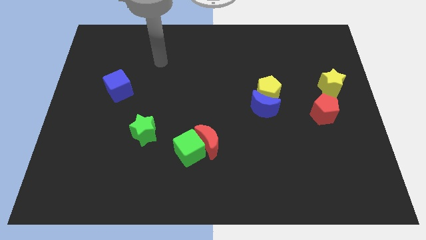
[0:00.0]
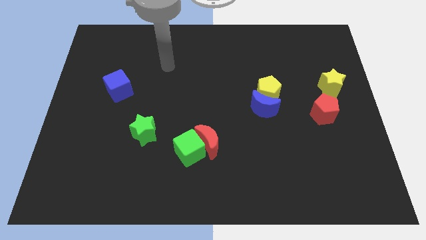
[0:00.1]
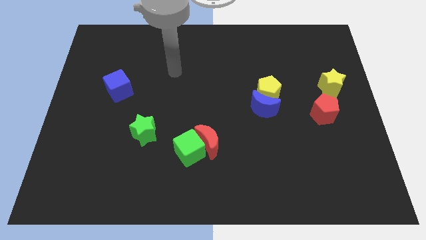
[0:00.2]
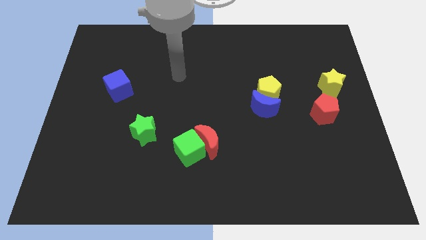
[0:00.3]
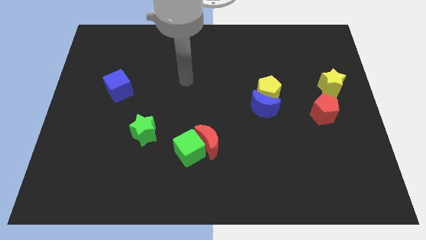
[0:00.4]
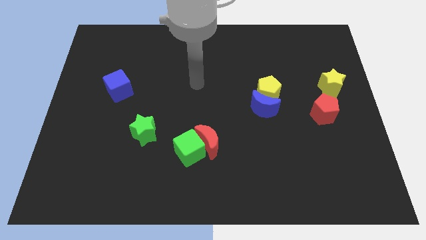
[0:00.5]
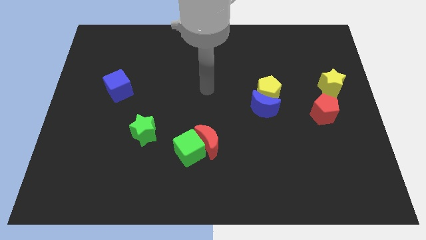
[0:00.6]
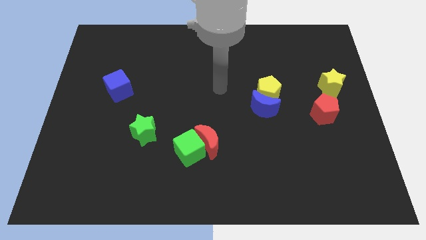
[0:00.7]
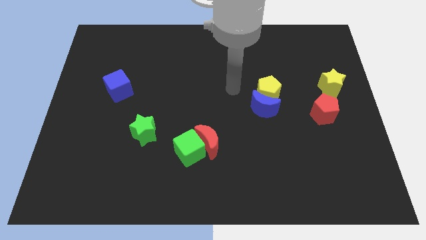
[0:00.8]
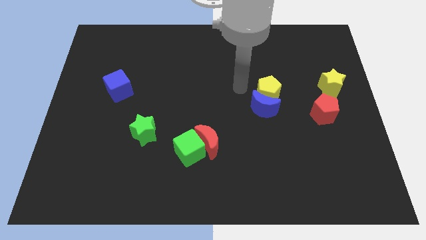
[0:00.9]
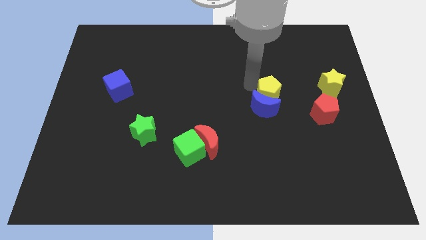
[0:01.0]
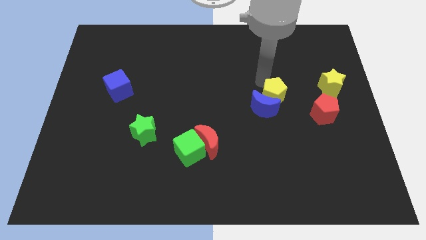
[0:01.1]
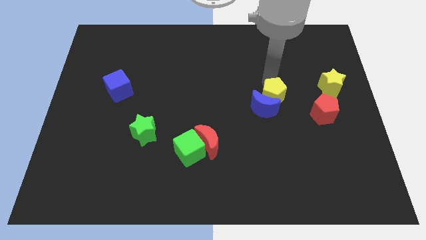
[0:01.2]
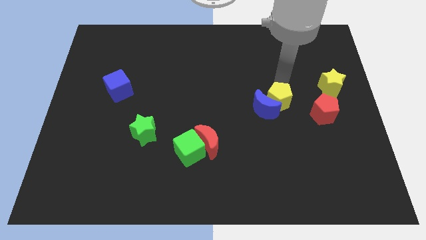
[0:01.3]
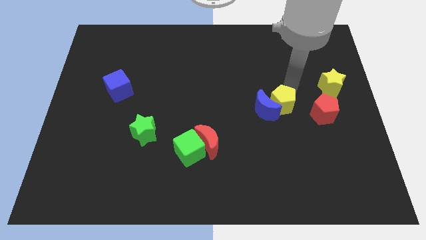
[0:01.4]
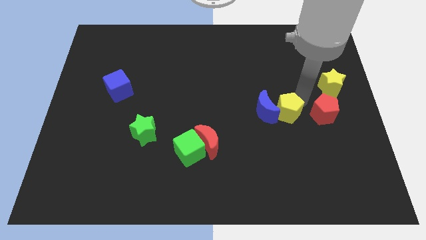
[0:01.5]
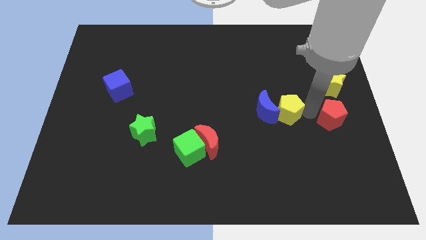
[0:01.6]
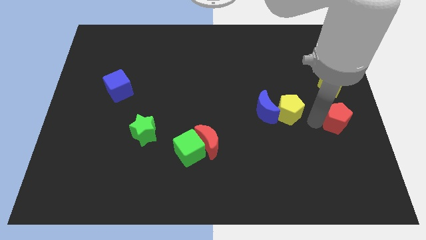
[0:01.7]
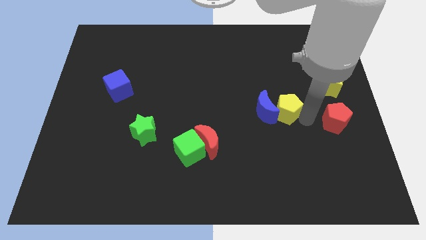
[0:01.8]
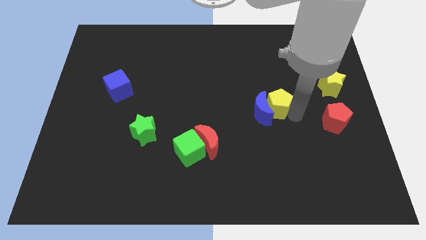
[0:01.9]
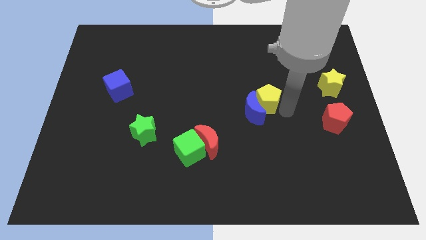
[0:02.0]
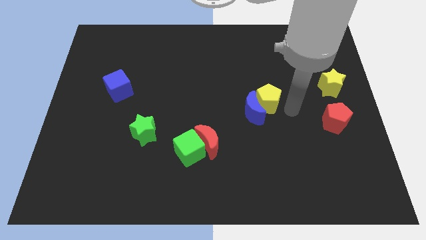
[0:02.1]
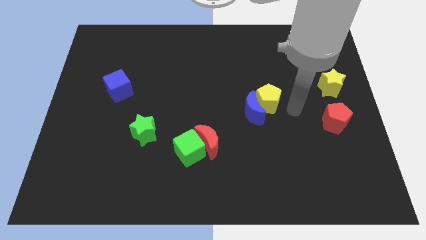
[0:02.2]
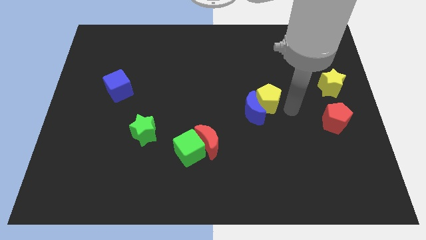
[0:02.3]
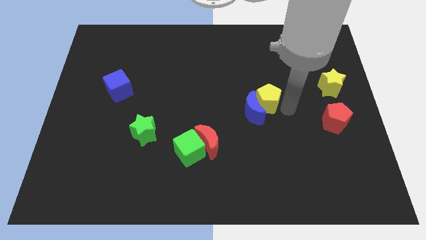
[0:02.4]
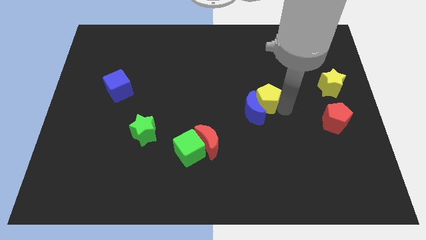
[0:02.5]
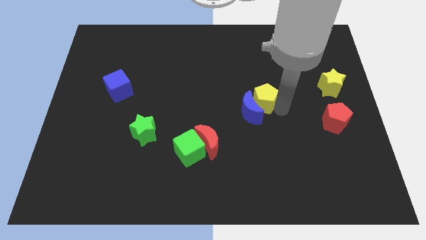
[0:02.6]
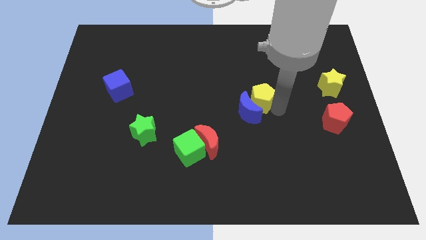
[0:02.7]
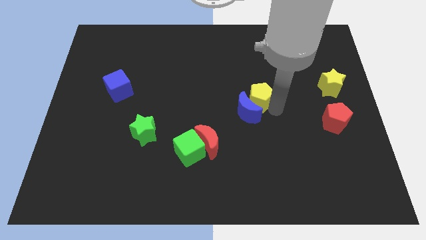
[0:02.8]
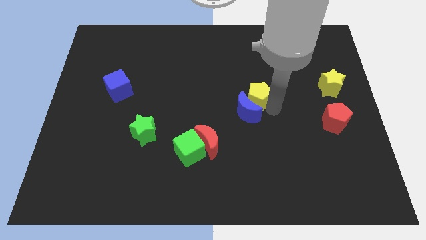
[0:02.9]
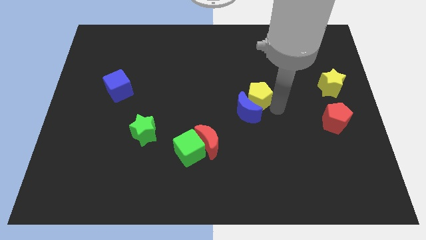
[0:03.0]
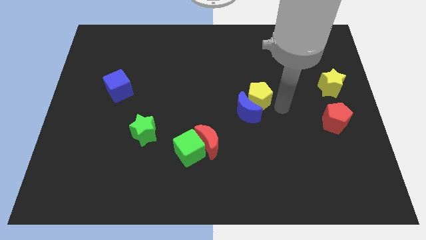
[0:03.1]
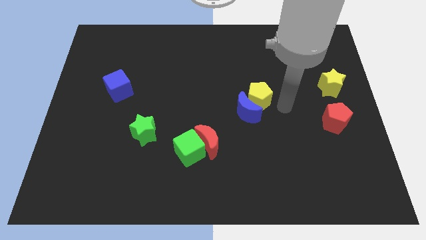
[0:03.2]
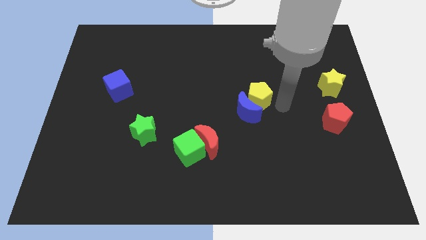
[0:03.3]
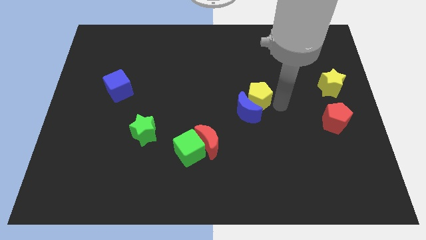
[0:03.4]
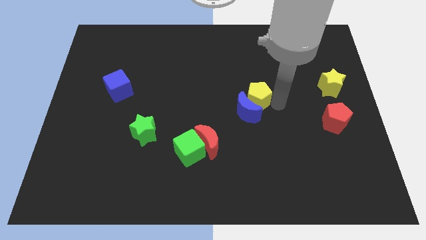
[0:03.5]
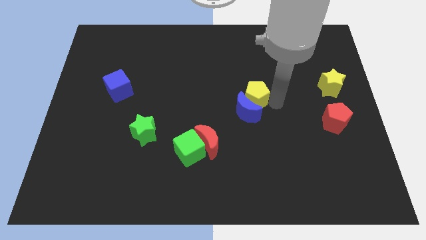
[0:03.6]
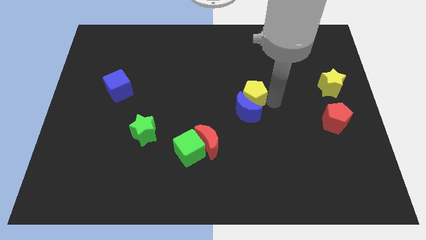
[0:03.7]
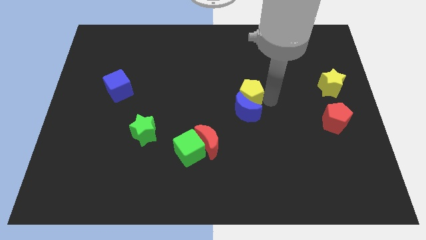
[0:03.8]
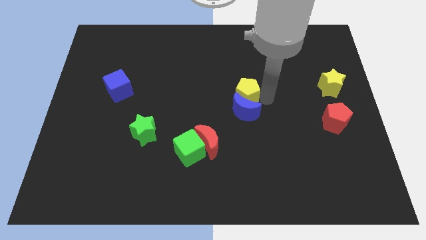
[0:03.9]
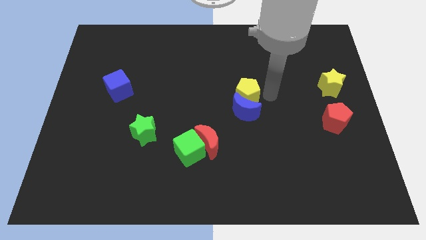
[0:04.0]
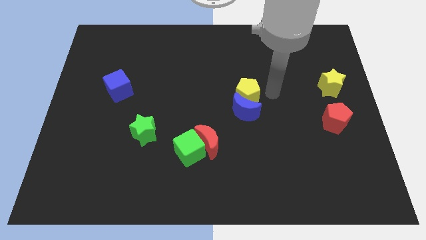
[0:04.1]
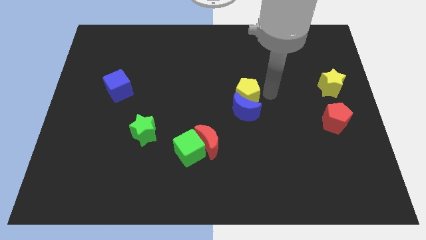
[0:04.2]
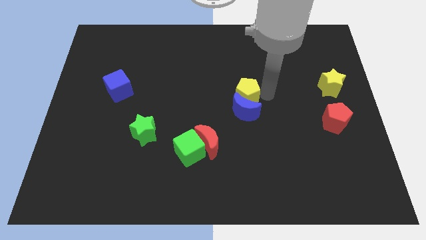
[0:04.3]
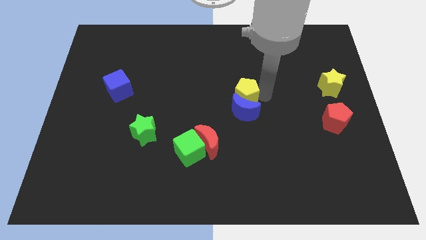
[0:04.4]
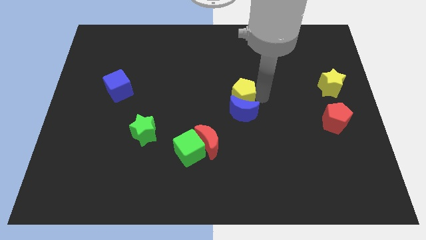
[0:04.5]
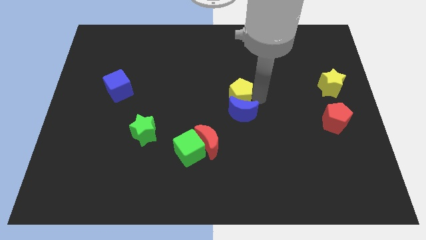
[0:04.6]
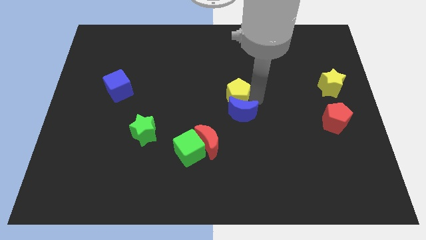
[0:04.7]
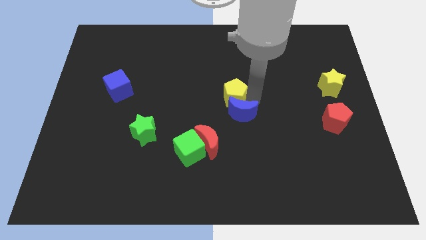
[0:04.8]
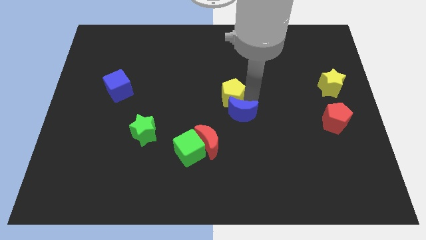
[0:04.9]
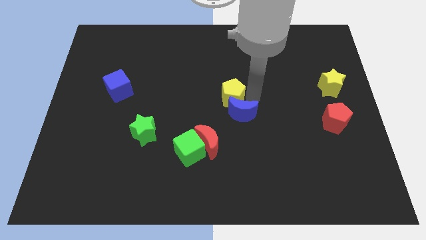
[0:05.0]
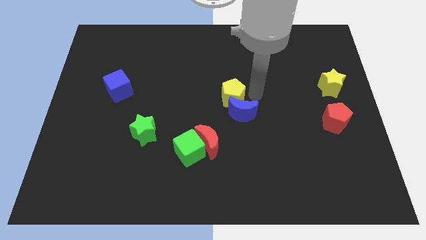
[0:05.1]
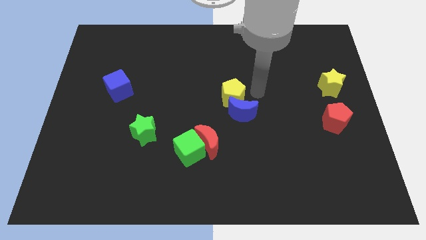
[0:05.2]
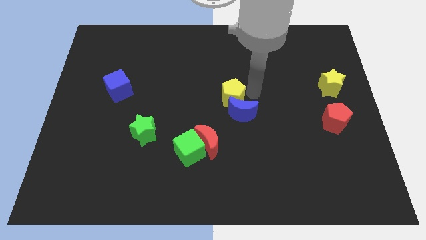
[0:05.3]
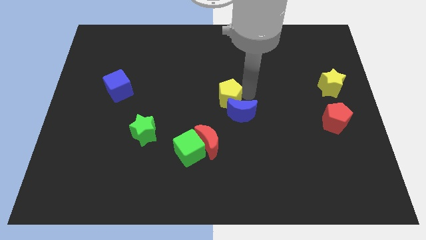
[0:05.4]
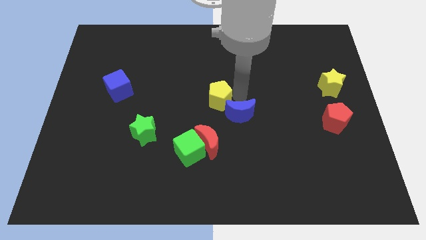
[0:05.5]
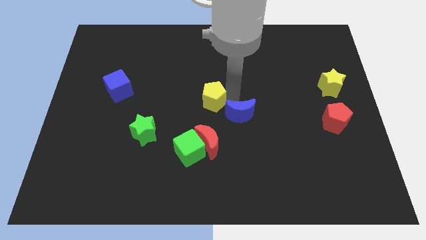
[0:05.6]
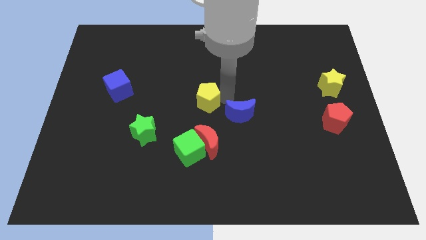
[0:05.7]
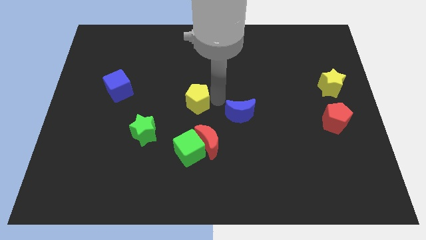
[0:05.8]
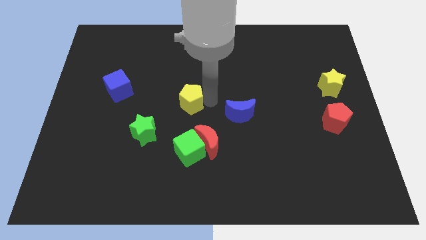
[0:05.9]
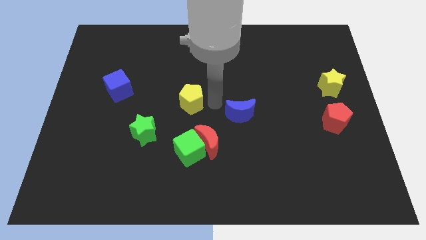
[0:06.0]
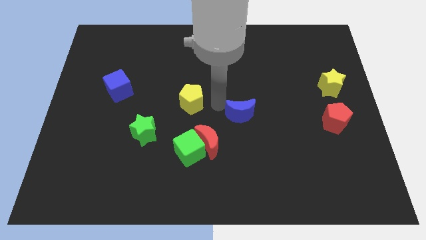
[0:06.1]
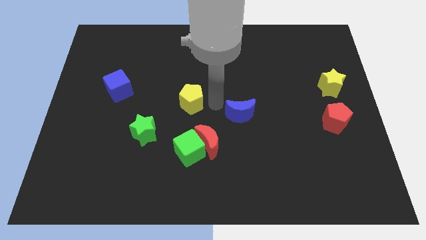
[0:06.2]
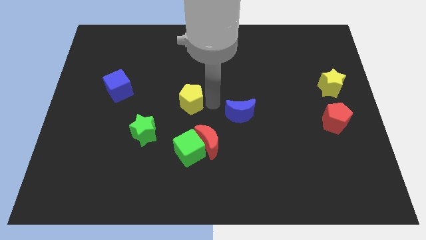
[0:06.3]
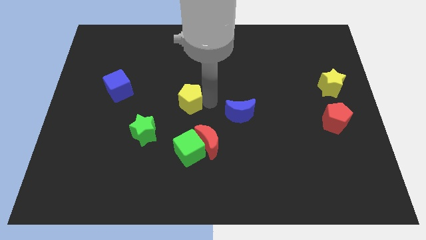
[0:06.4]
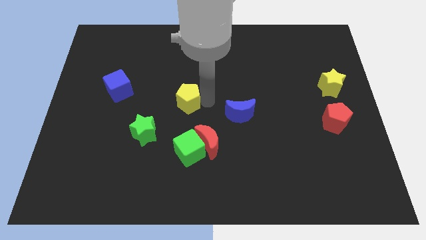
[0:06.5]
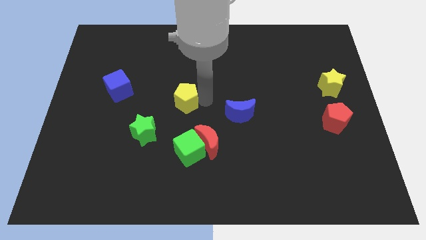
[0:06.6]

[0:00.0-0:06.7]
slide the yellow pentagon to the left

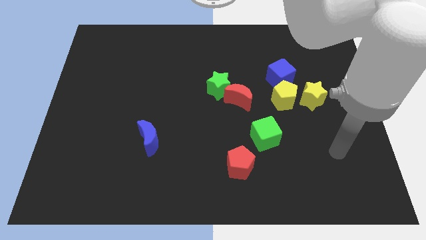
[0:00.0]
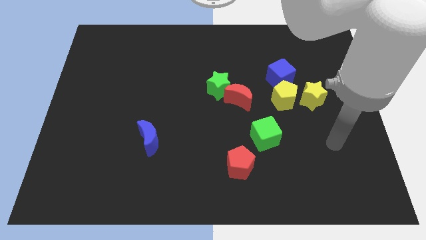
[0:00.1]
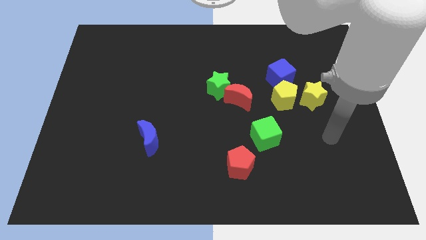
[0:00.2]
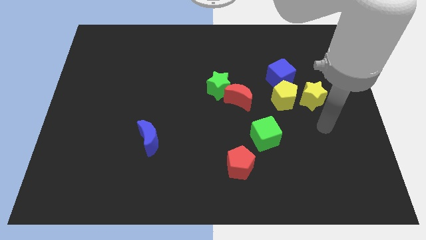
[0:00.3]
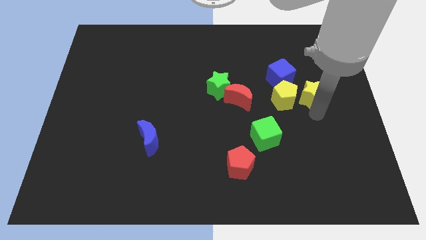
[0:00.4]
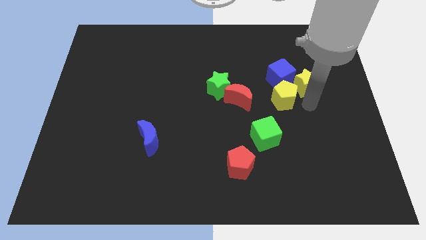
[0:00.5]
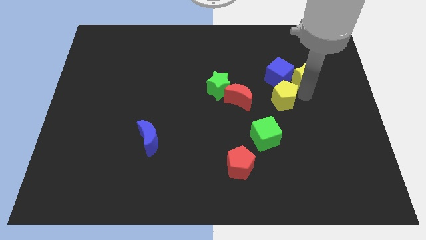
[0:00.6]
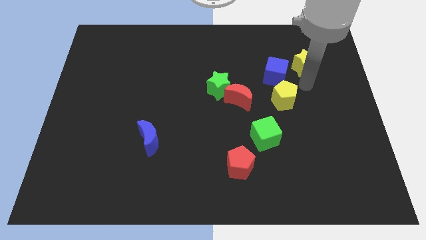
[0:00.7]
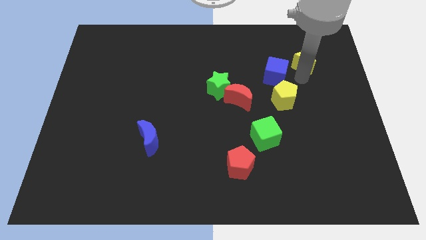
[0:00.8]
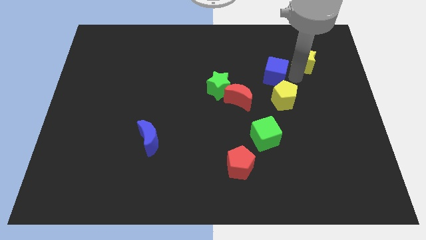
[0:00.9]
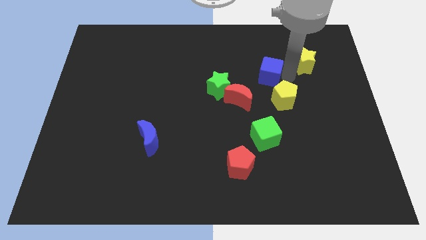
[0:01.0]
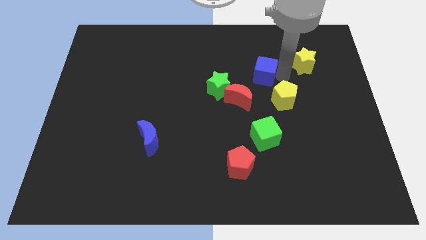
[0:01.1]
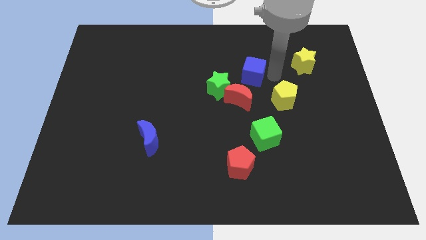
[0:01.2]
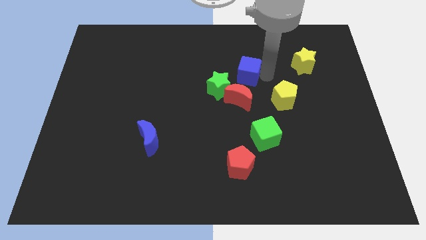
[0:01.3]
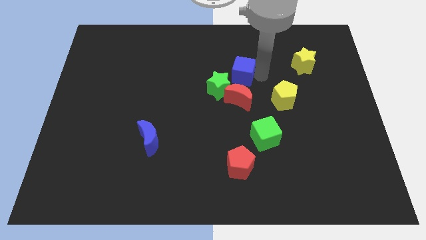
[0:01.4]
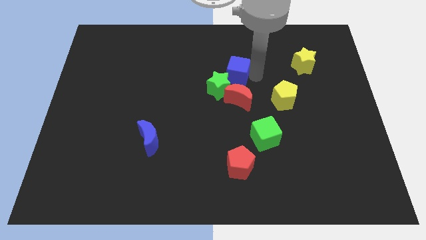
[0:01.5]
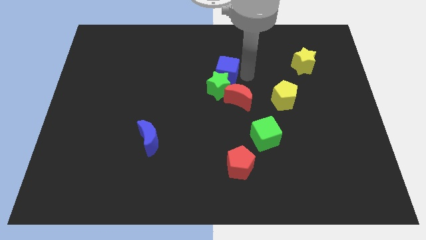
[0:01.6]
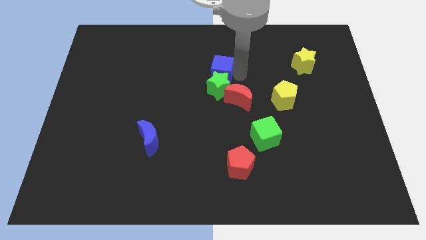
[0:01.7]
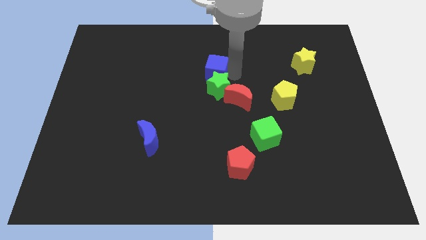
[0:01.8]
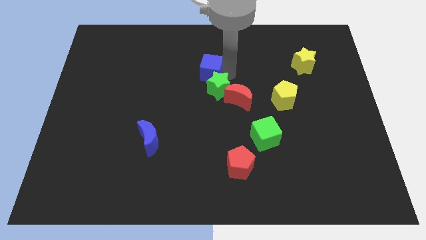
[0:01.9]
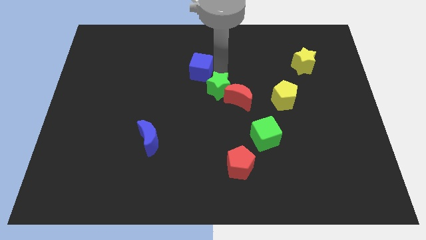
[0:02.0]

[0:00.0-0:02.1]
move the blue cube left
